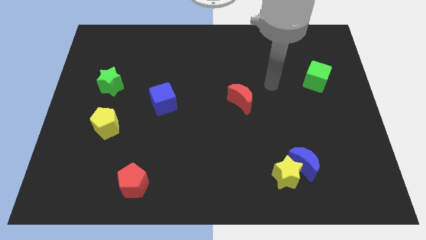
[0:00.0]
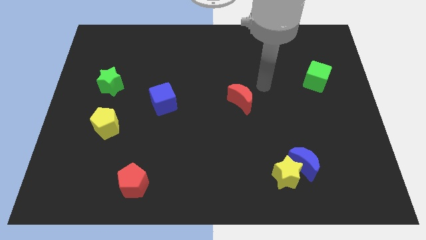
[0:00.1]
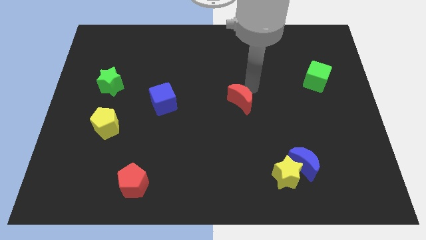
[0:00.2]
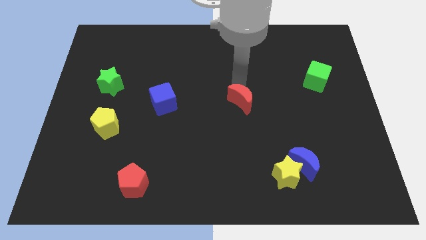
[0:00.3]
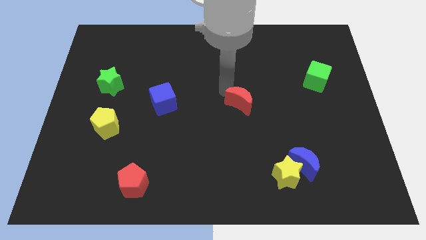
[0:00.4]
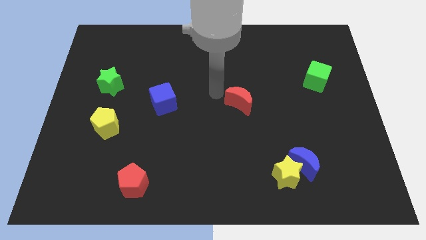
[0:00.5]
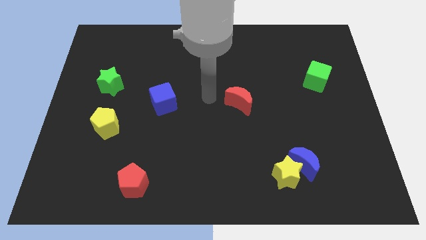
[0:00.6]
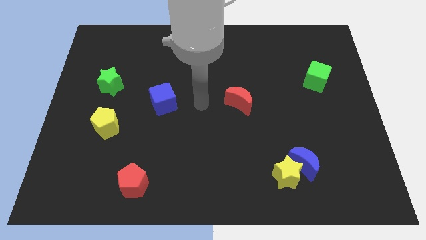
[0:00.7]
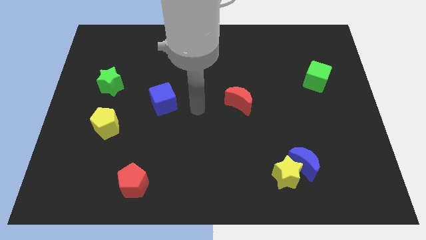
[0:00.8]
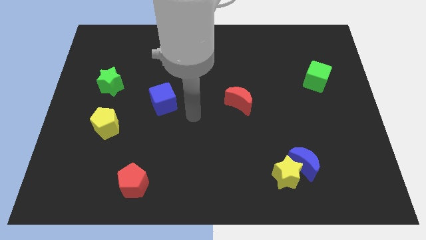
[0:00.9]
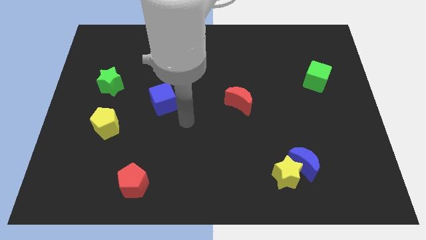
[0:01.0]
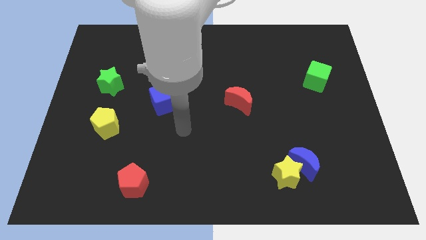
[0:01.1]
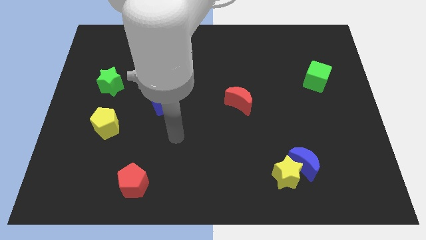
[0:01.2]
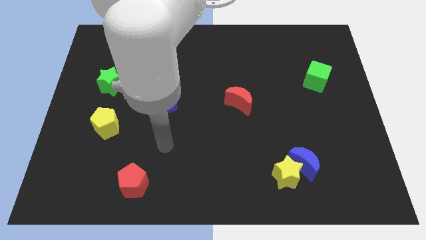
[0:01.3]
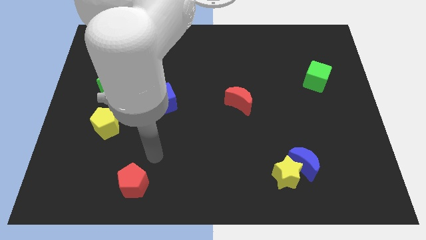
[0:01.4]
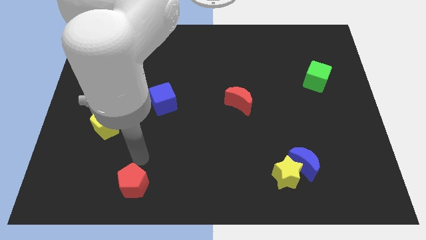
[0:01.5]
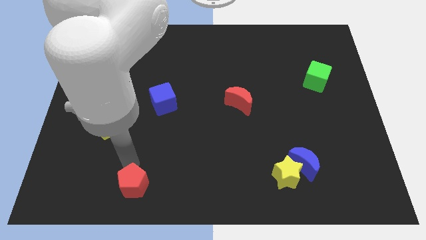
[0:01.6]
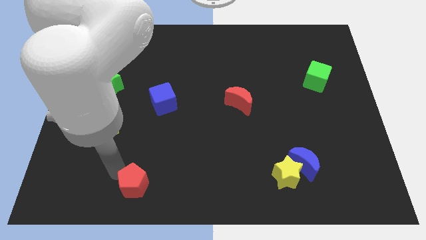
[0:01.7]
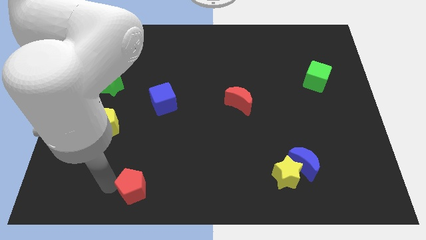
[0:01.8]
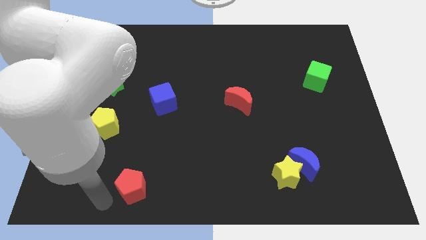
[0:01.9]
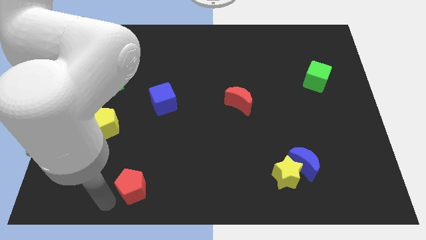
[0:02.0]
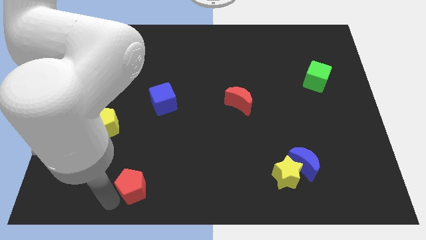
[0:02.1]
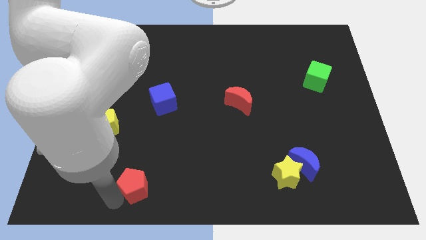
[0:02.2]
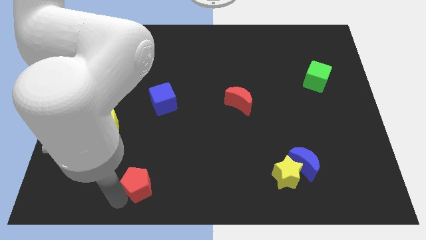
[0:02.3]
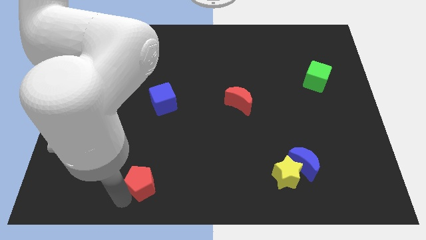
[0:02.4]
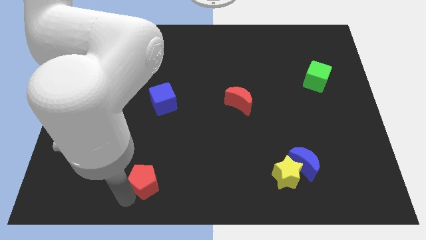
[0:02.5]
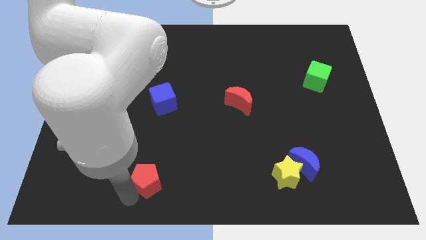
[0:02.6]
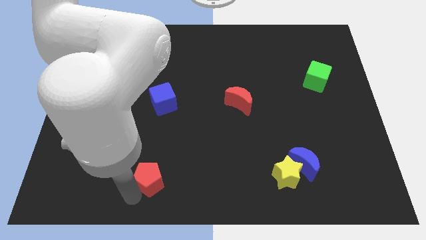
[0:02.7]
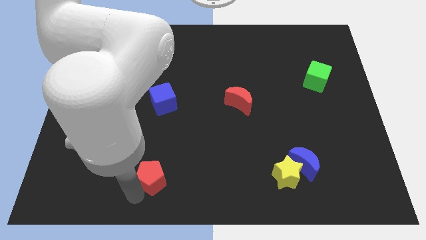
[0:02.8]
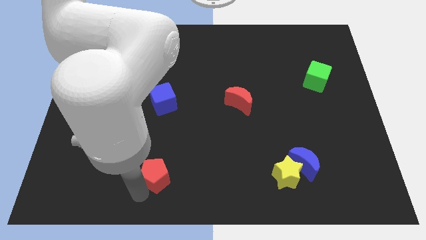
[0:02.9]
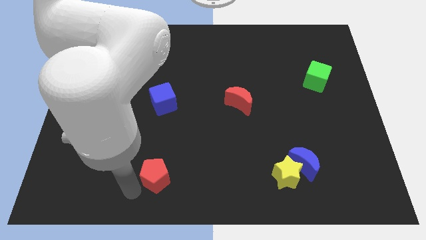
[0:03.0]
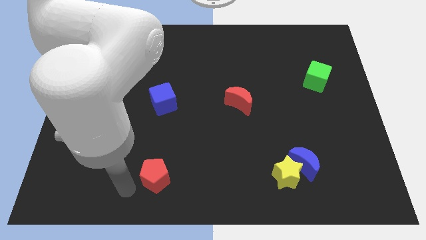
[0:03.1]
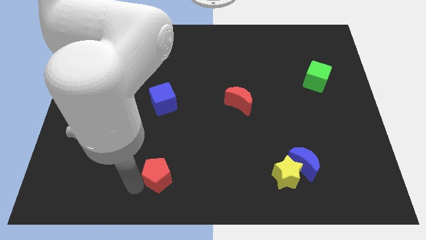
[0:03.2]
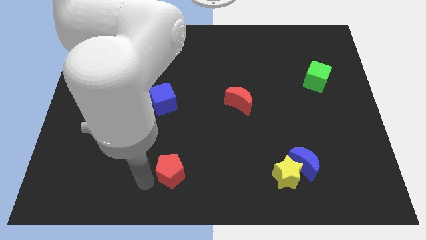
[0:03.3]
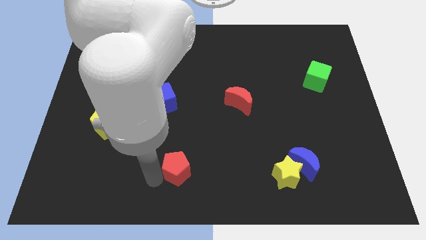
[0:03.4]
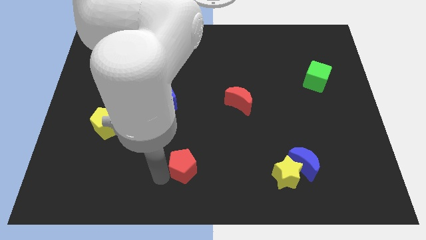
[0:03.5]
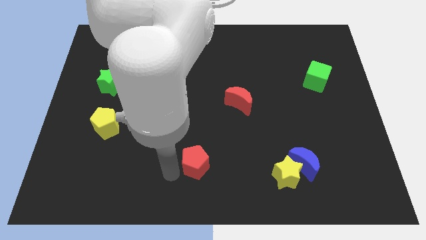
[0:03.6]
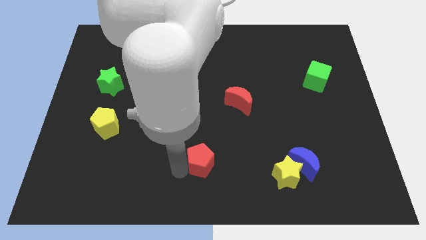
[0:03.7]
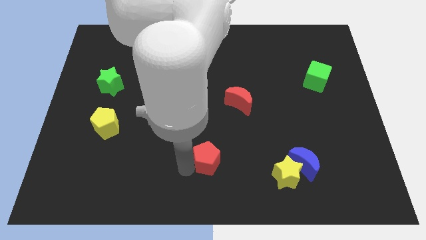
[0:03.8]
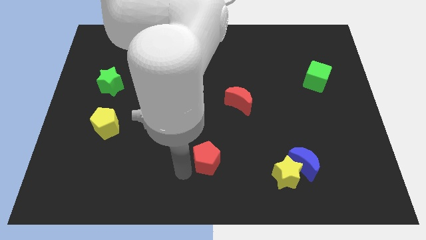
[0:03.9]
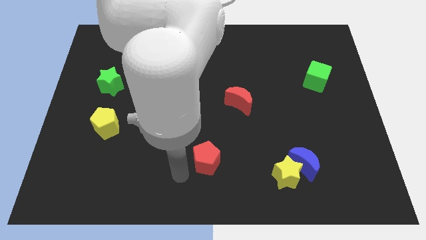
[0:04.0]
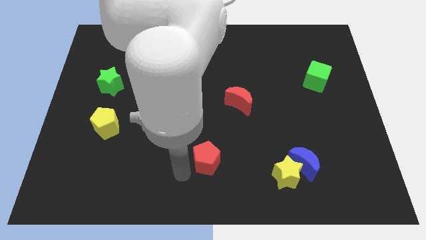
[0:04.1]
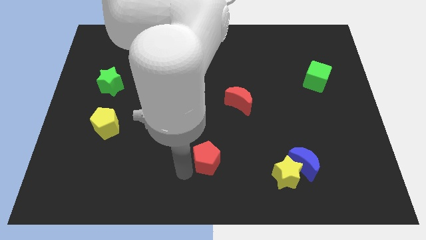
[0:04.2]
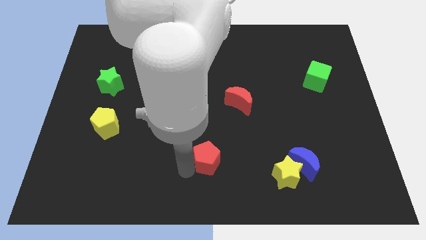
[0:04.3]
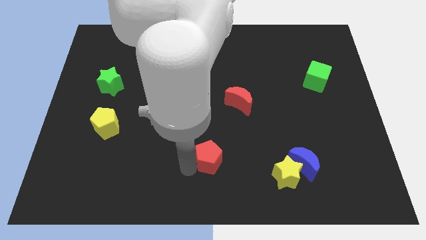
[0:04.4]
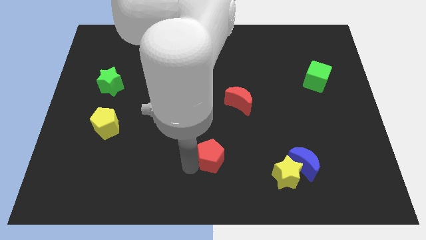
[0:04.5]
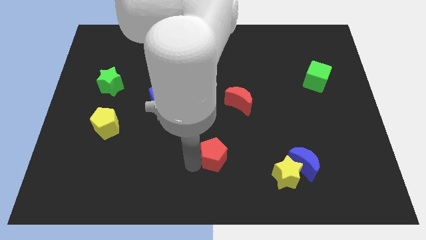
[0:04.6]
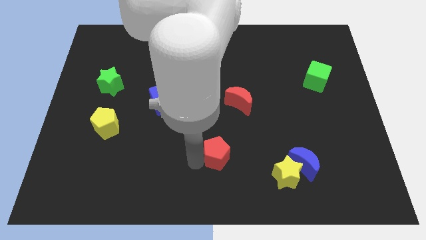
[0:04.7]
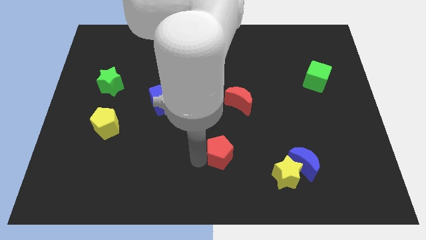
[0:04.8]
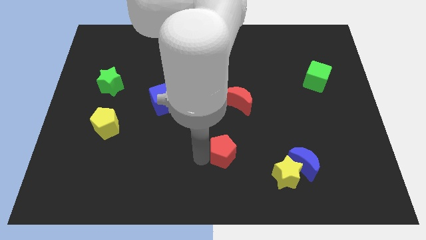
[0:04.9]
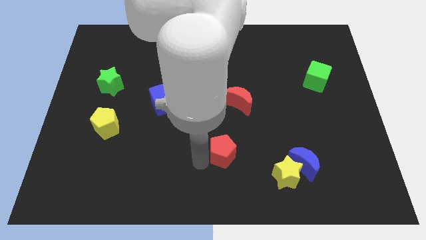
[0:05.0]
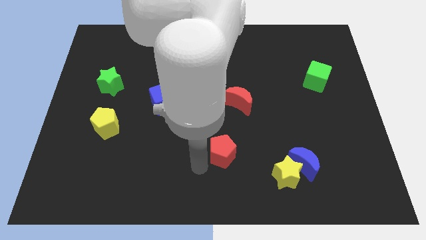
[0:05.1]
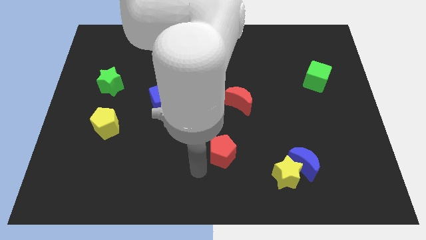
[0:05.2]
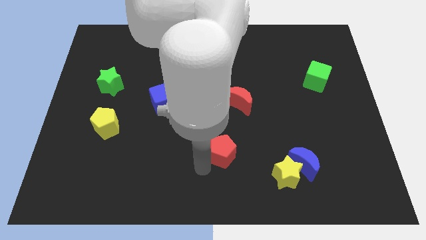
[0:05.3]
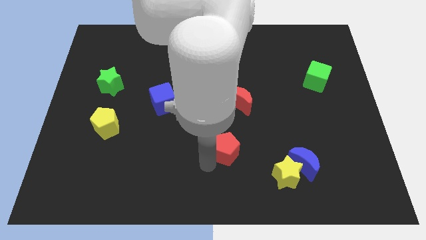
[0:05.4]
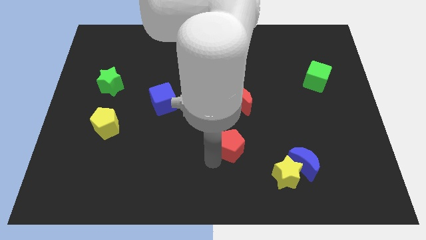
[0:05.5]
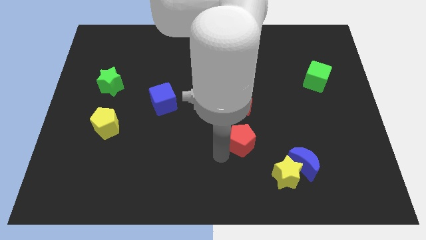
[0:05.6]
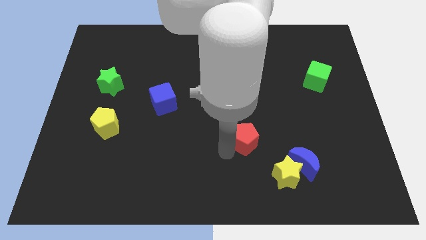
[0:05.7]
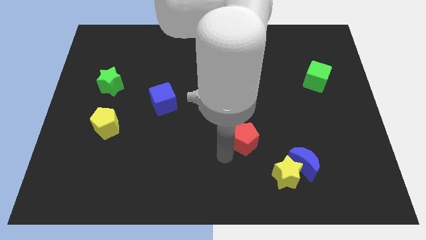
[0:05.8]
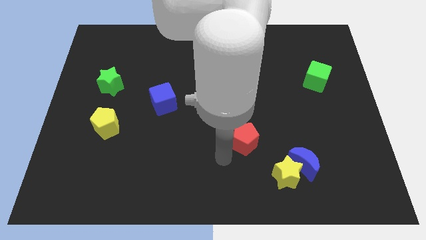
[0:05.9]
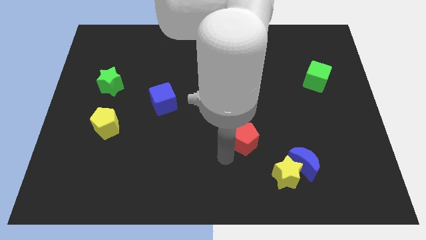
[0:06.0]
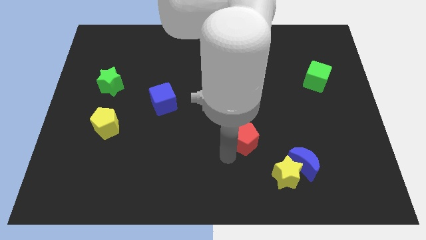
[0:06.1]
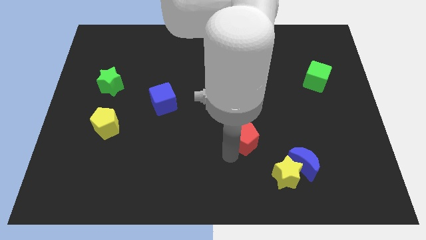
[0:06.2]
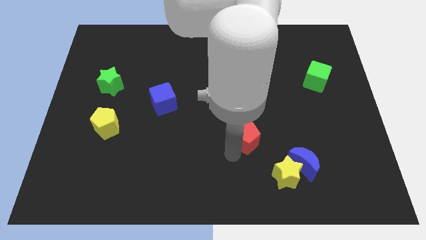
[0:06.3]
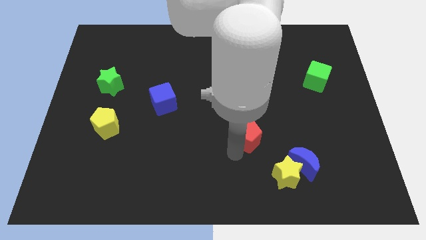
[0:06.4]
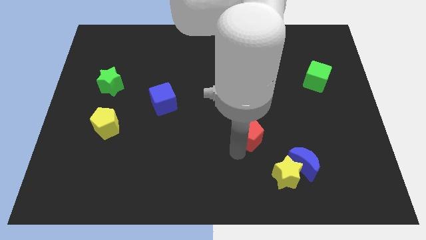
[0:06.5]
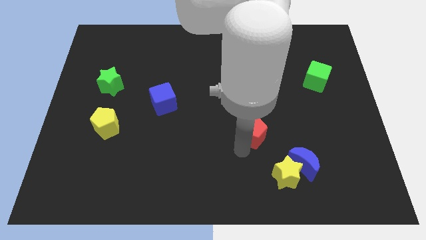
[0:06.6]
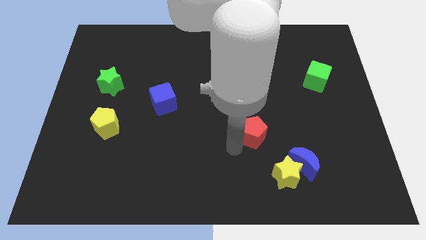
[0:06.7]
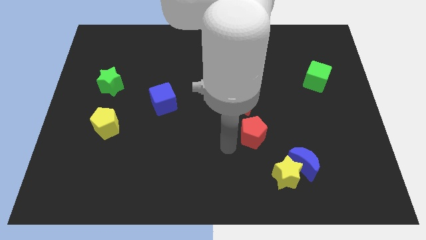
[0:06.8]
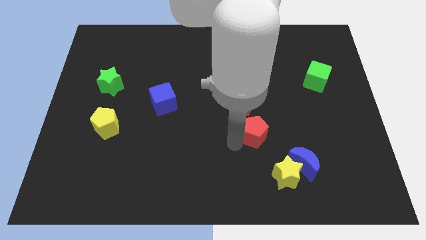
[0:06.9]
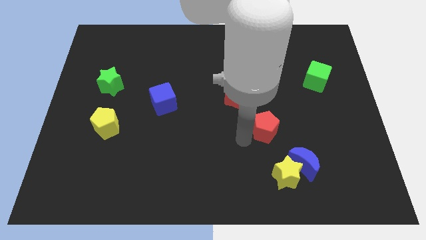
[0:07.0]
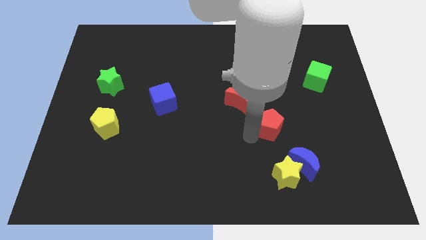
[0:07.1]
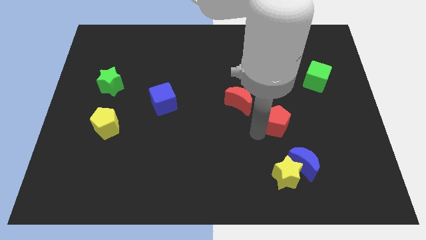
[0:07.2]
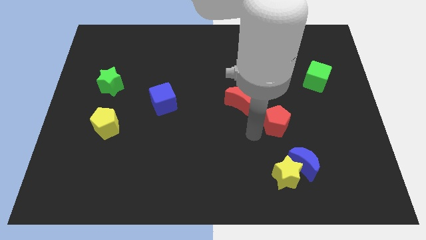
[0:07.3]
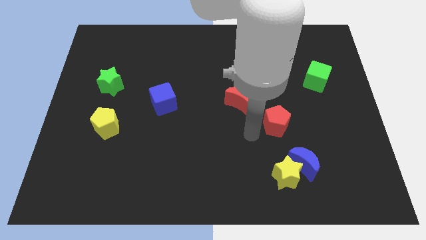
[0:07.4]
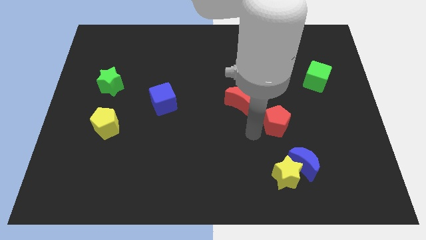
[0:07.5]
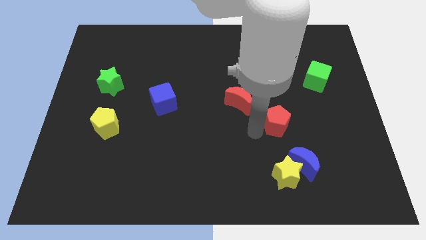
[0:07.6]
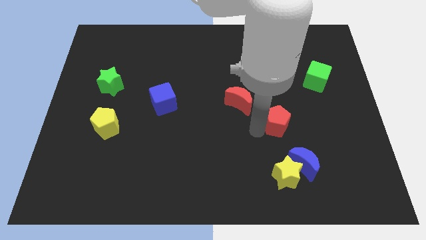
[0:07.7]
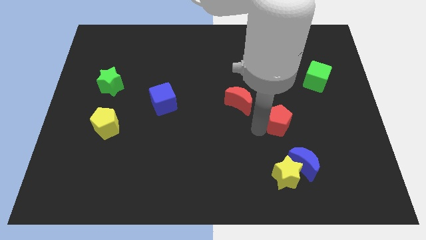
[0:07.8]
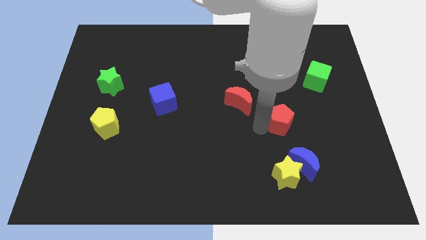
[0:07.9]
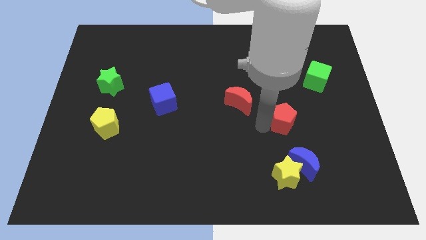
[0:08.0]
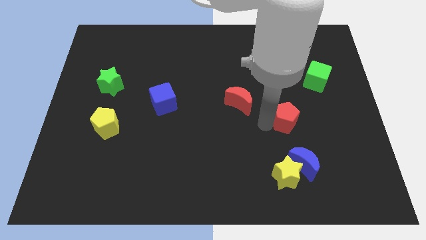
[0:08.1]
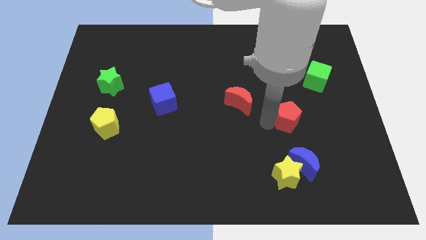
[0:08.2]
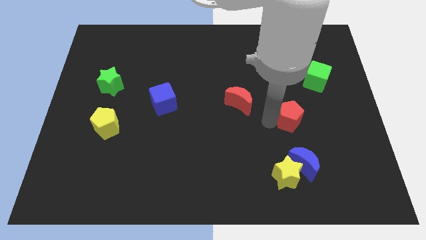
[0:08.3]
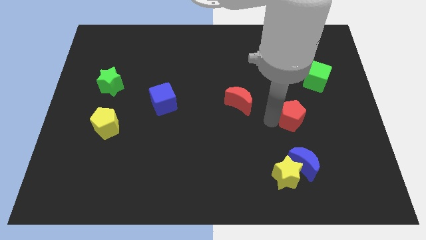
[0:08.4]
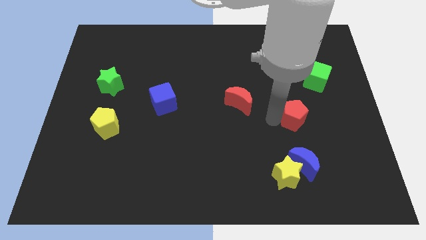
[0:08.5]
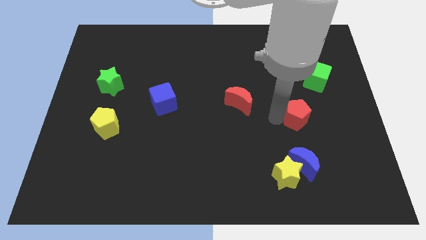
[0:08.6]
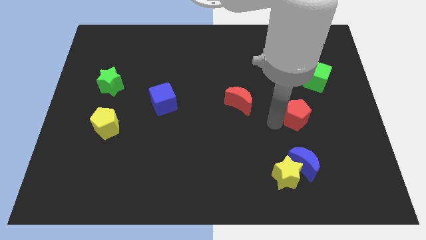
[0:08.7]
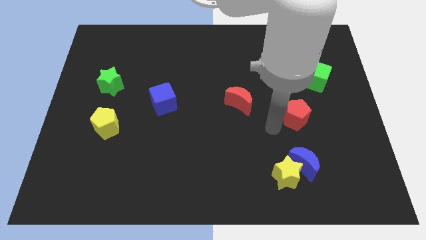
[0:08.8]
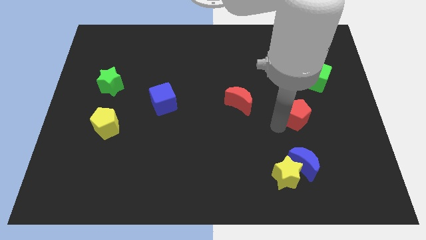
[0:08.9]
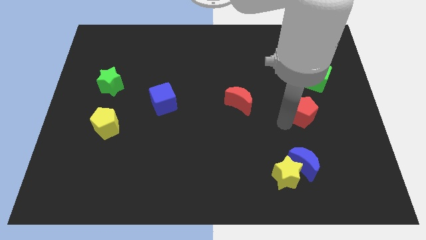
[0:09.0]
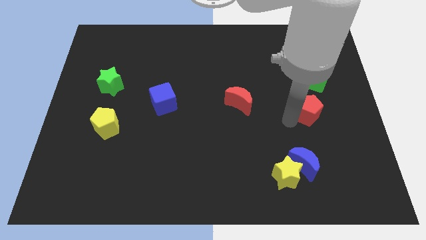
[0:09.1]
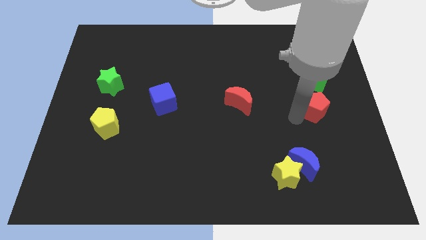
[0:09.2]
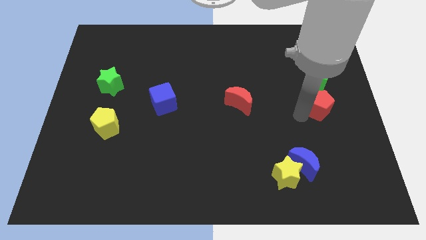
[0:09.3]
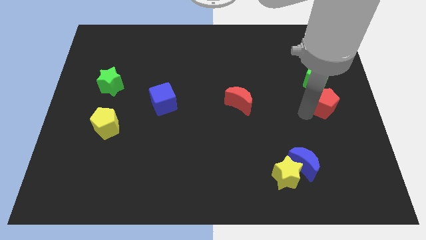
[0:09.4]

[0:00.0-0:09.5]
slide the red pentagon to the right side of the board
